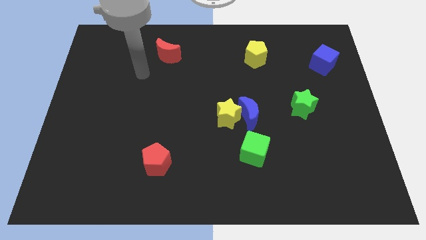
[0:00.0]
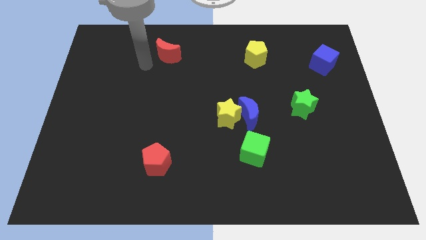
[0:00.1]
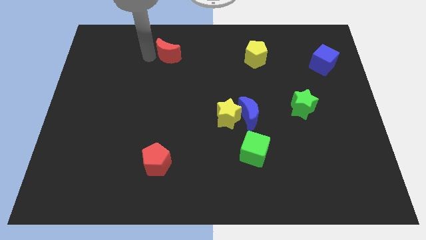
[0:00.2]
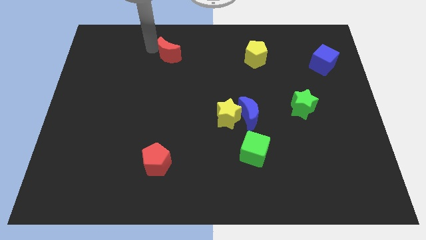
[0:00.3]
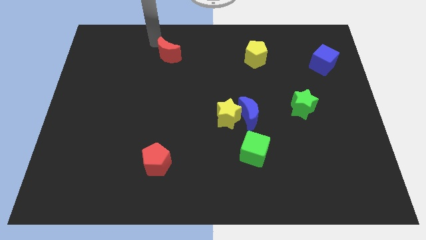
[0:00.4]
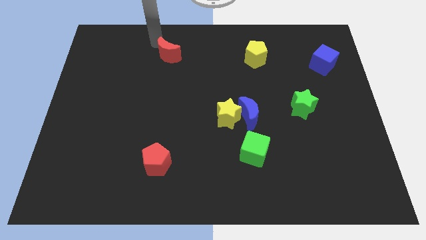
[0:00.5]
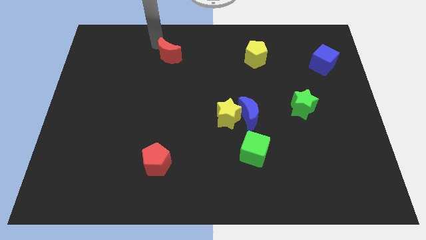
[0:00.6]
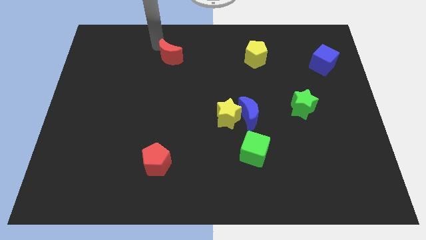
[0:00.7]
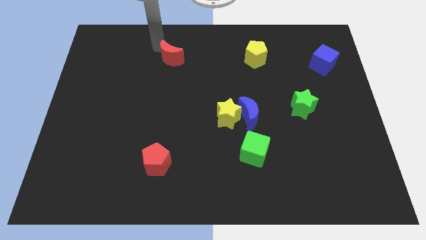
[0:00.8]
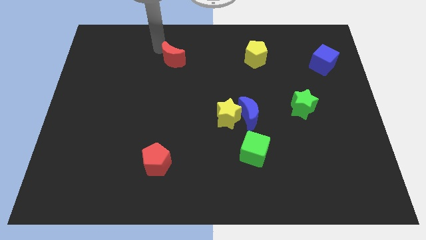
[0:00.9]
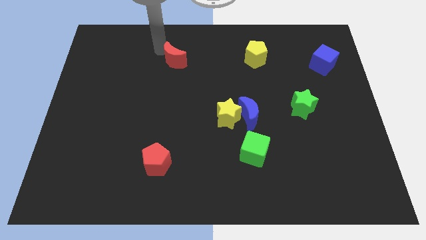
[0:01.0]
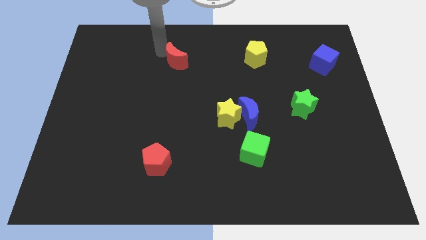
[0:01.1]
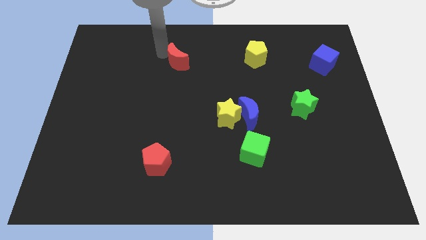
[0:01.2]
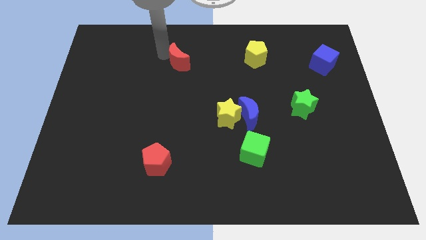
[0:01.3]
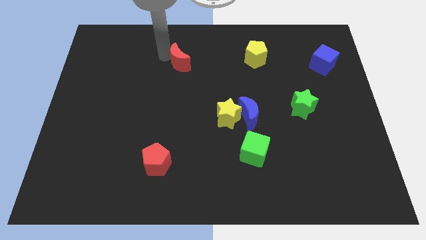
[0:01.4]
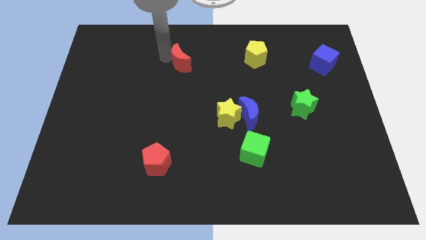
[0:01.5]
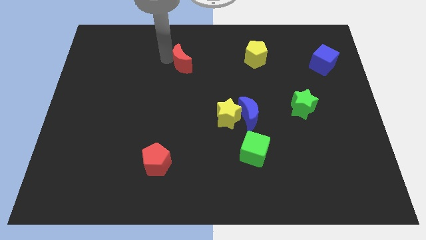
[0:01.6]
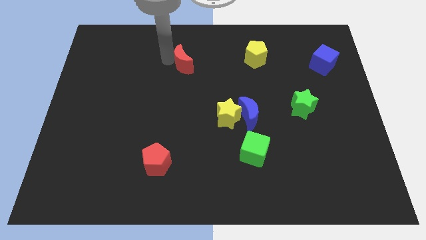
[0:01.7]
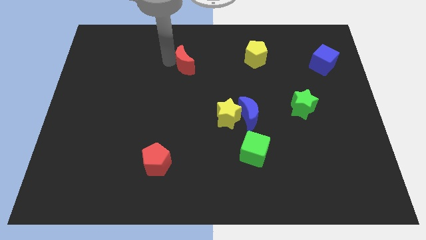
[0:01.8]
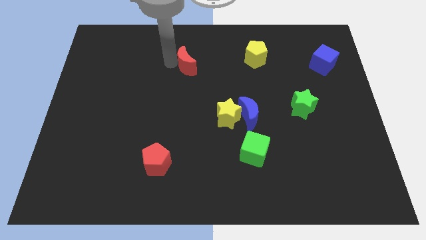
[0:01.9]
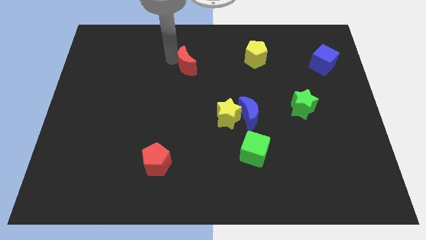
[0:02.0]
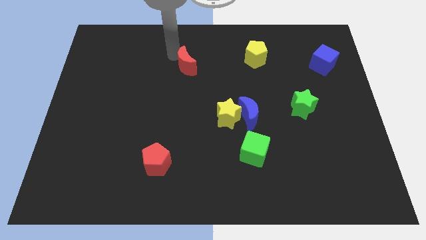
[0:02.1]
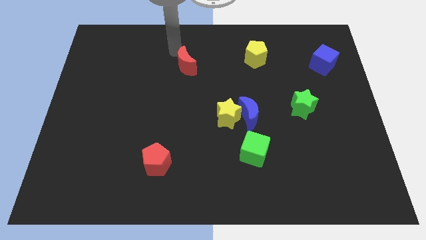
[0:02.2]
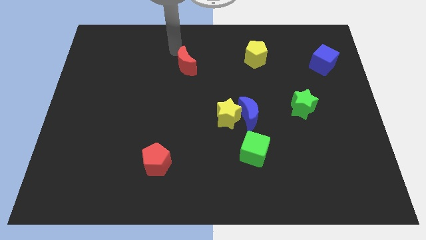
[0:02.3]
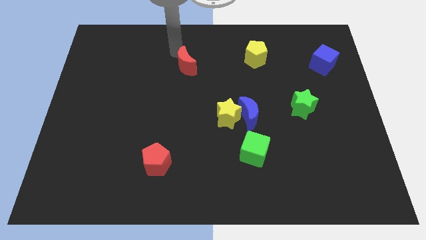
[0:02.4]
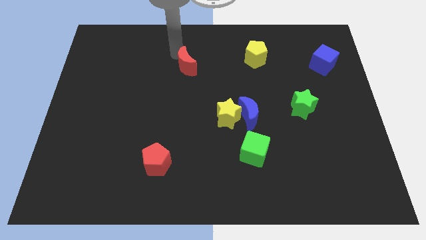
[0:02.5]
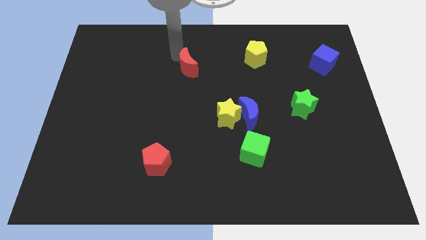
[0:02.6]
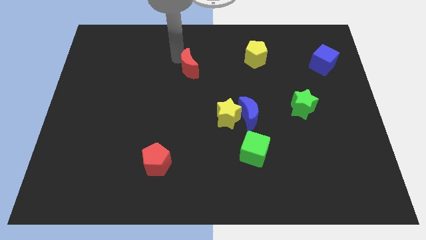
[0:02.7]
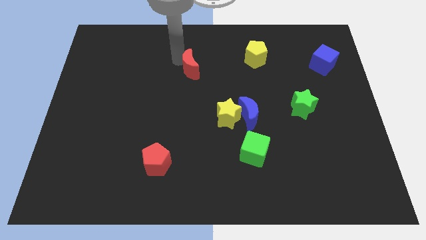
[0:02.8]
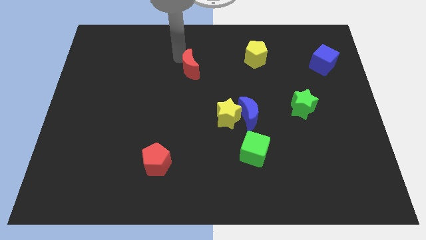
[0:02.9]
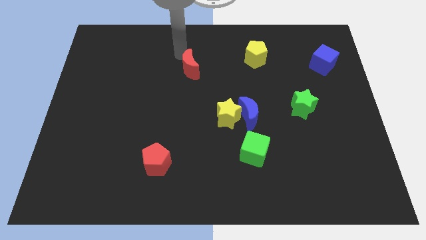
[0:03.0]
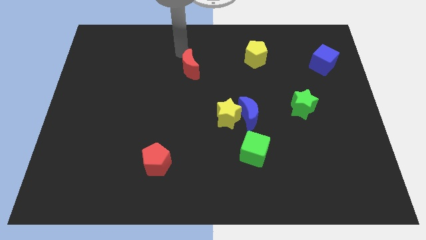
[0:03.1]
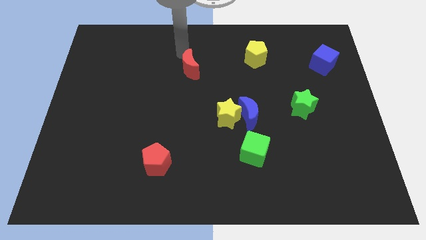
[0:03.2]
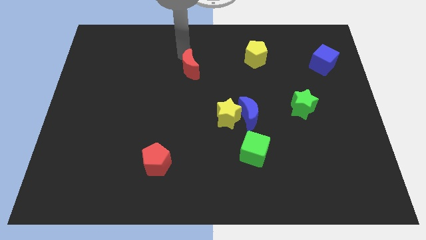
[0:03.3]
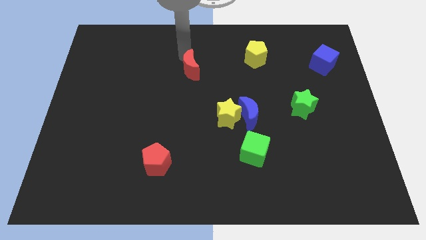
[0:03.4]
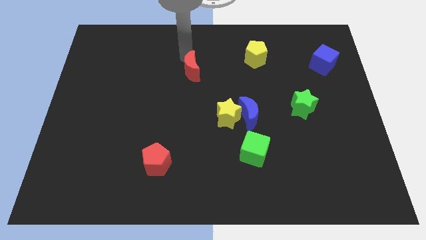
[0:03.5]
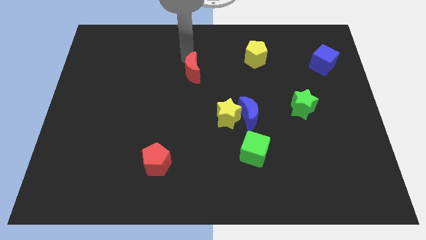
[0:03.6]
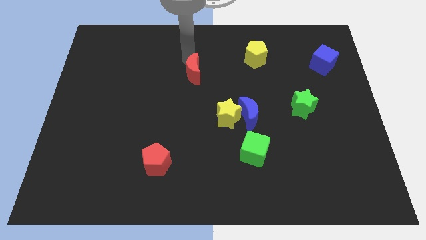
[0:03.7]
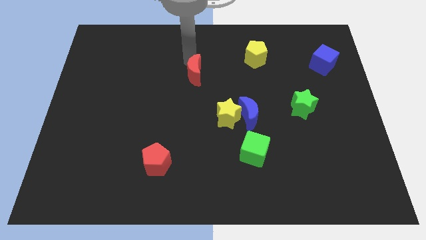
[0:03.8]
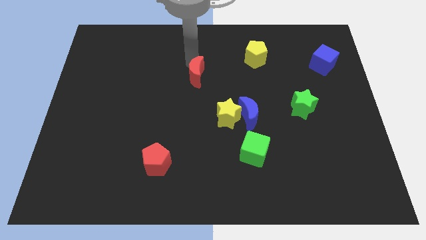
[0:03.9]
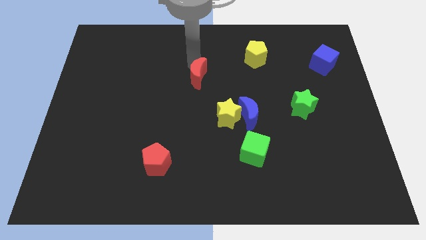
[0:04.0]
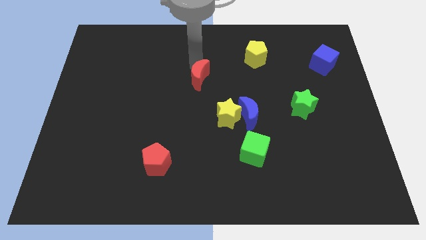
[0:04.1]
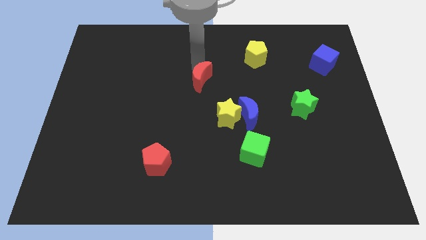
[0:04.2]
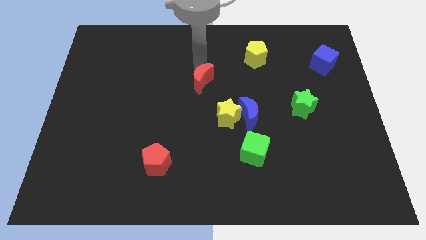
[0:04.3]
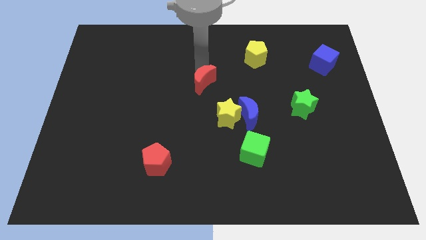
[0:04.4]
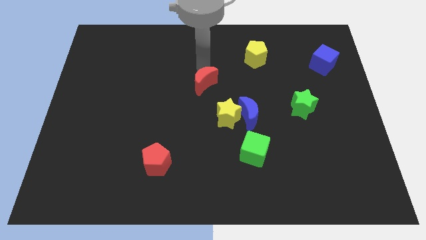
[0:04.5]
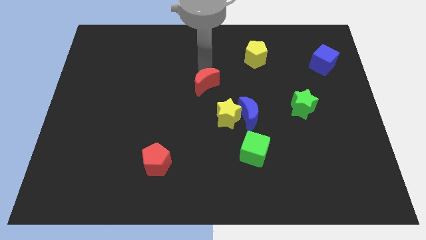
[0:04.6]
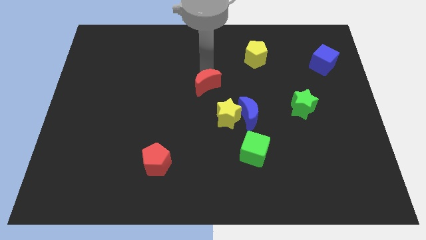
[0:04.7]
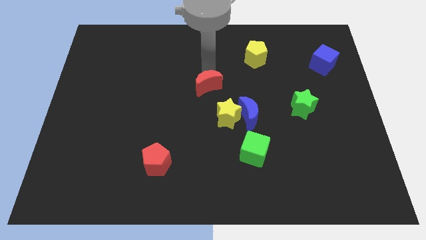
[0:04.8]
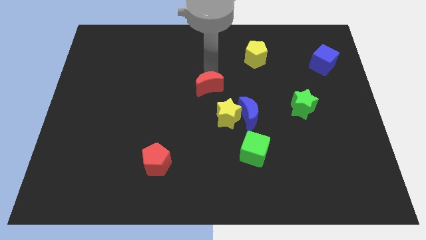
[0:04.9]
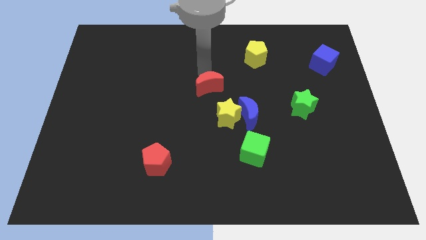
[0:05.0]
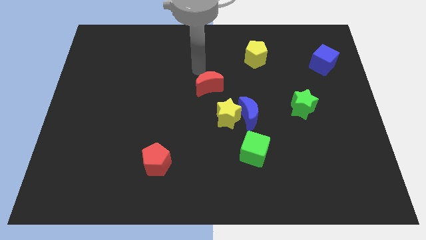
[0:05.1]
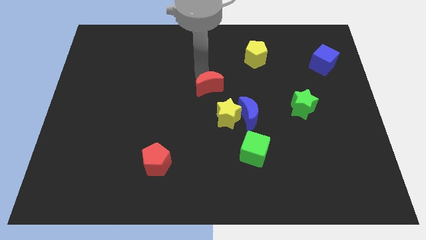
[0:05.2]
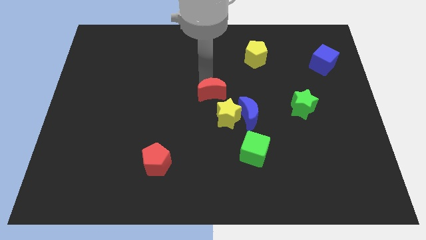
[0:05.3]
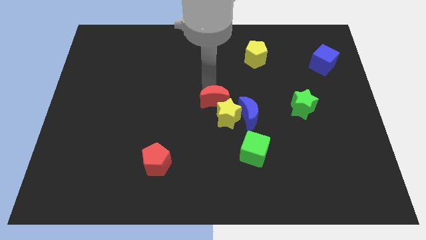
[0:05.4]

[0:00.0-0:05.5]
slide the red moon towards the yellow star

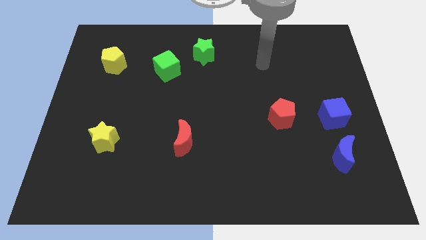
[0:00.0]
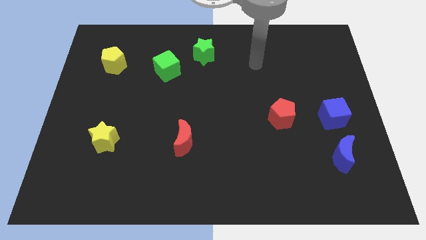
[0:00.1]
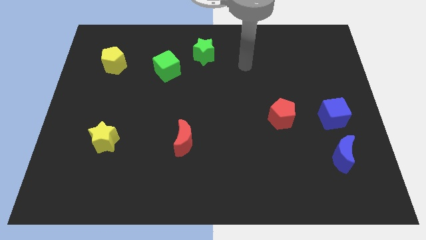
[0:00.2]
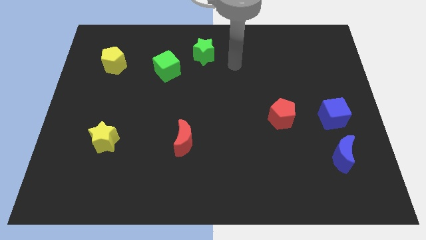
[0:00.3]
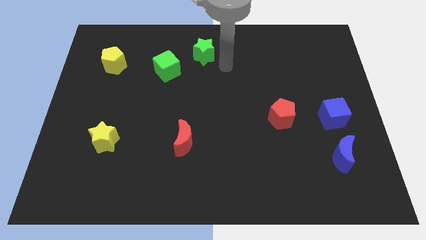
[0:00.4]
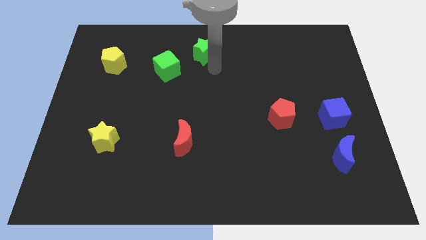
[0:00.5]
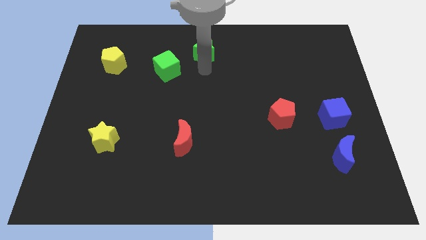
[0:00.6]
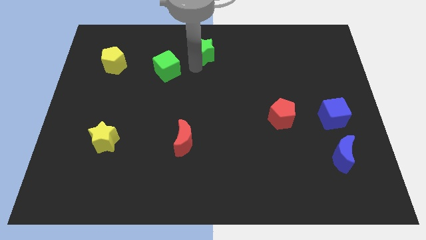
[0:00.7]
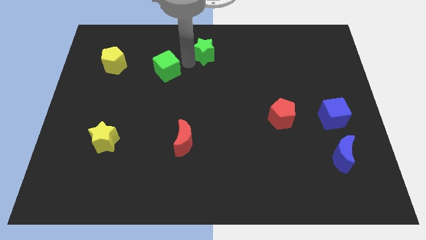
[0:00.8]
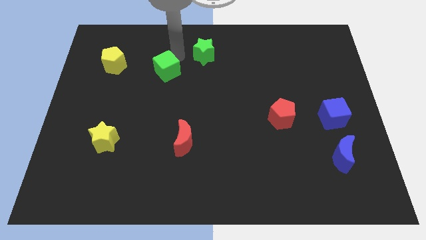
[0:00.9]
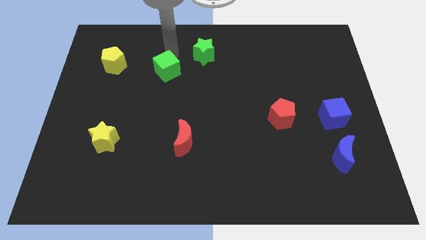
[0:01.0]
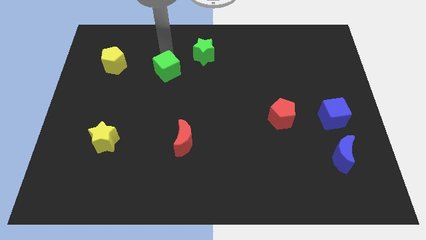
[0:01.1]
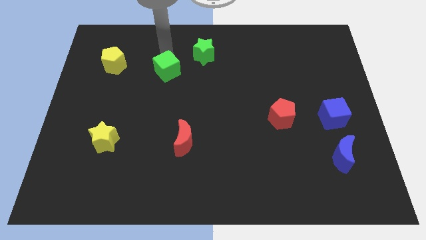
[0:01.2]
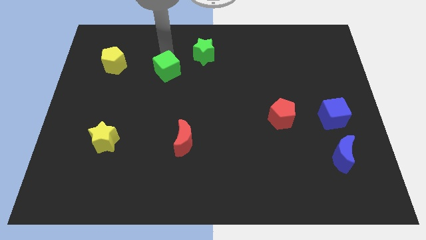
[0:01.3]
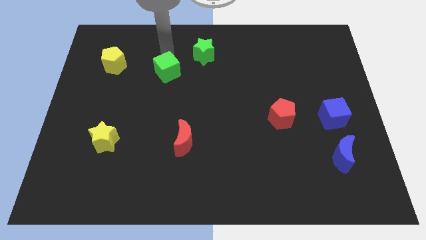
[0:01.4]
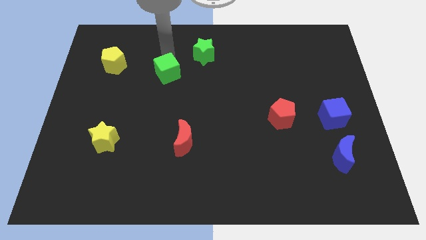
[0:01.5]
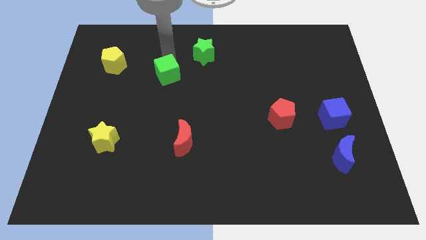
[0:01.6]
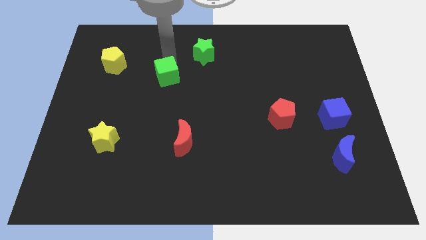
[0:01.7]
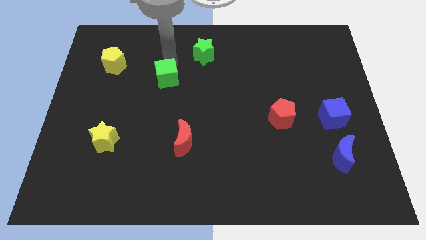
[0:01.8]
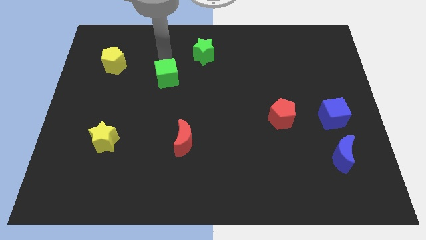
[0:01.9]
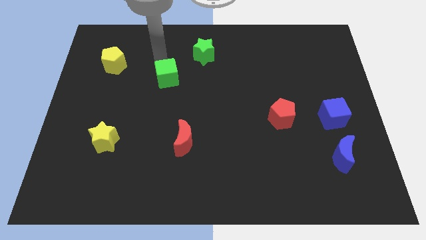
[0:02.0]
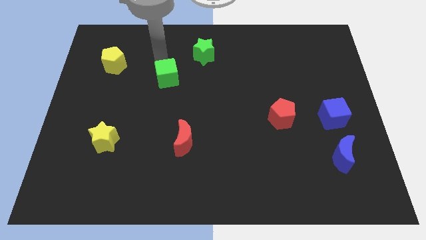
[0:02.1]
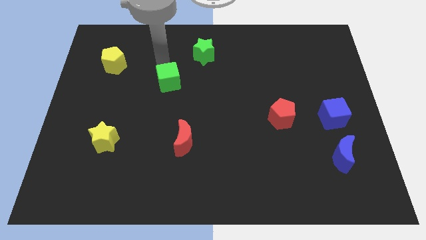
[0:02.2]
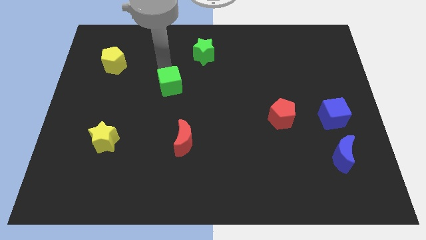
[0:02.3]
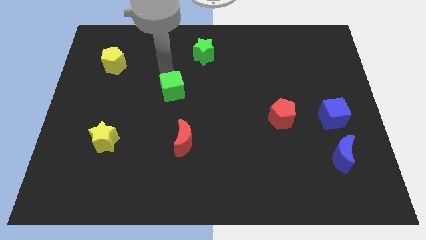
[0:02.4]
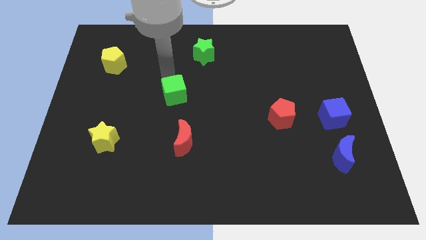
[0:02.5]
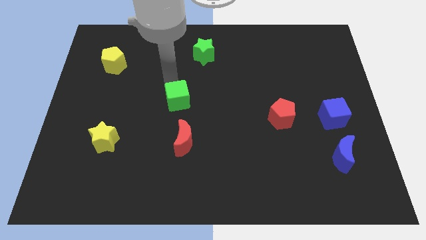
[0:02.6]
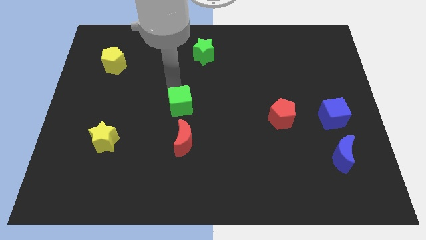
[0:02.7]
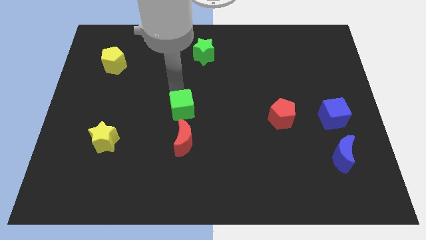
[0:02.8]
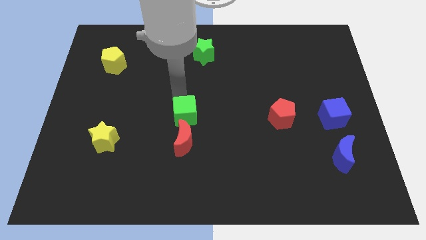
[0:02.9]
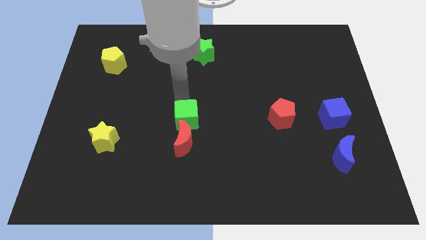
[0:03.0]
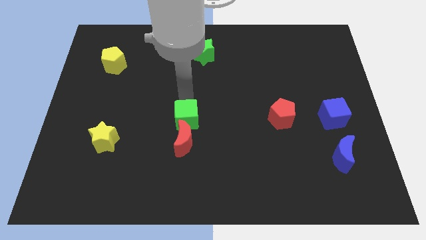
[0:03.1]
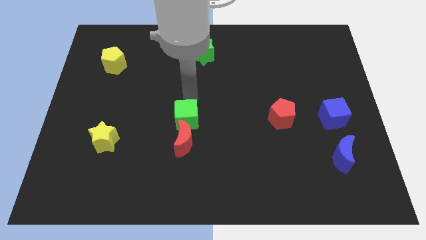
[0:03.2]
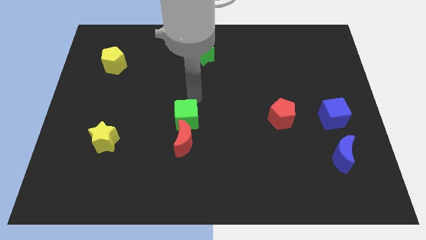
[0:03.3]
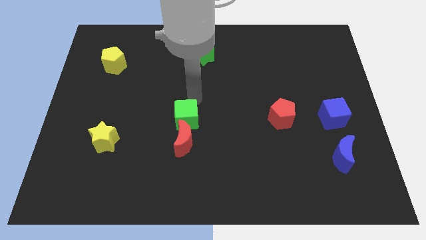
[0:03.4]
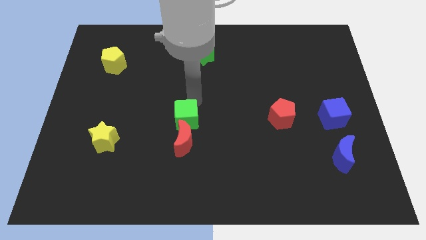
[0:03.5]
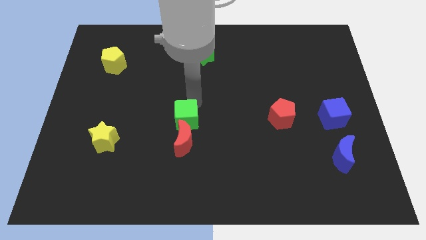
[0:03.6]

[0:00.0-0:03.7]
put the green cube towards the red moon
